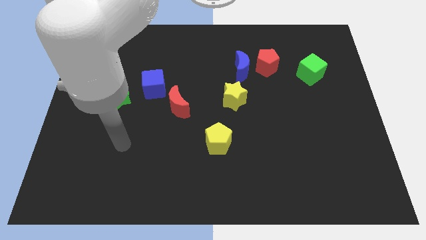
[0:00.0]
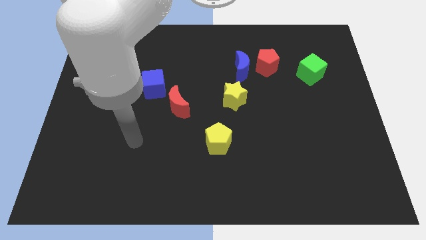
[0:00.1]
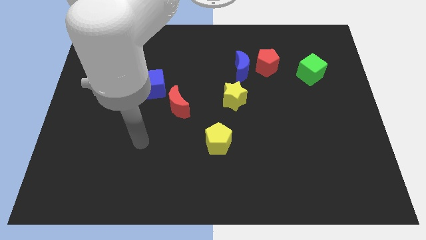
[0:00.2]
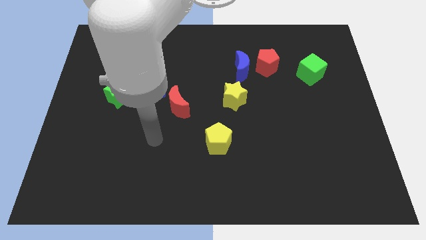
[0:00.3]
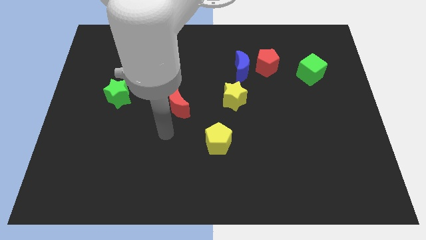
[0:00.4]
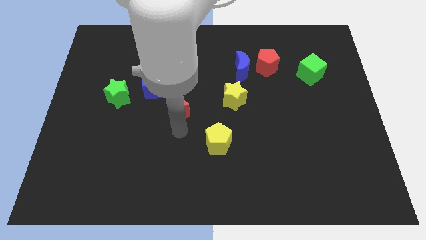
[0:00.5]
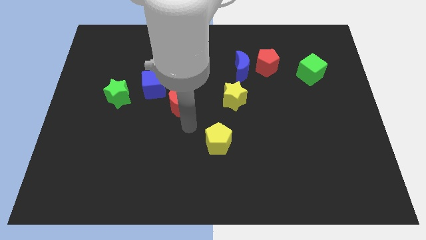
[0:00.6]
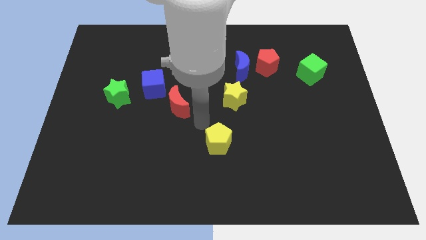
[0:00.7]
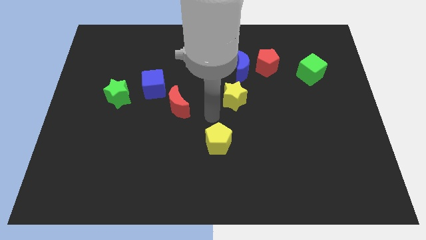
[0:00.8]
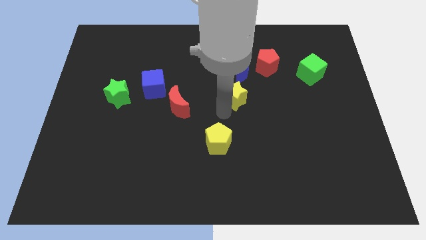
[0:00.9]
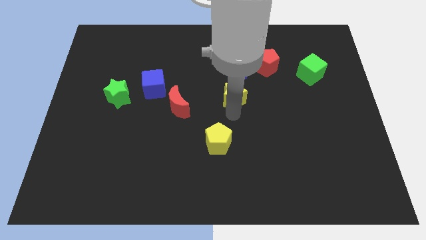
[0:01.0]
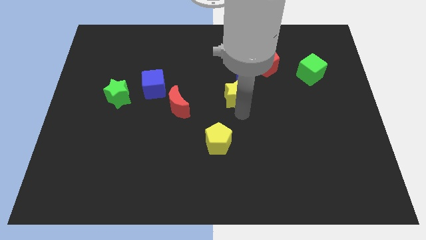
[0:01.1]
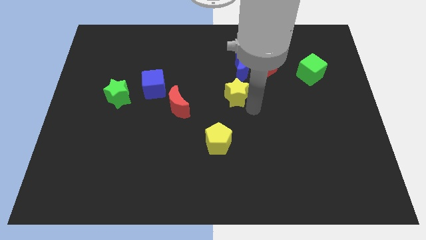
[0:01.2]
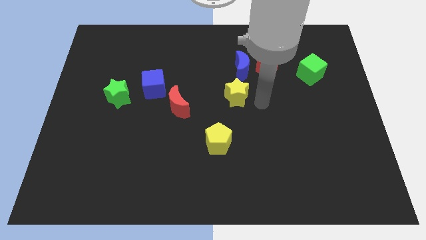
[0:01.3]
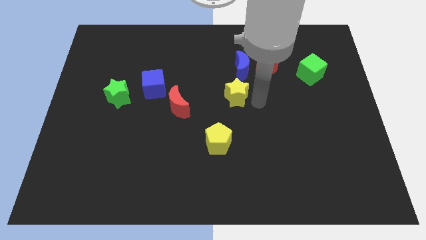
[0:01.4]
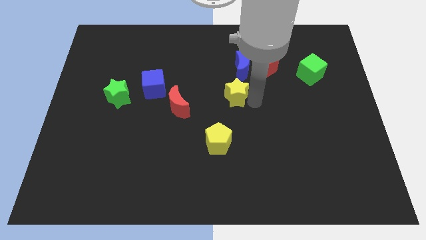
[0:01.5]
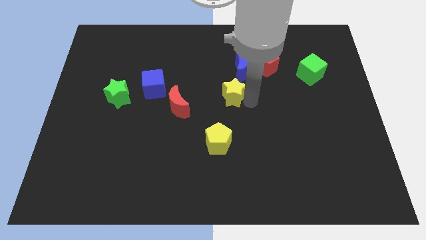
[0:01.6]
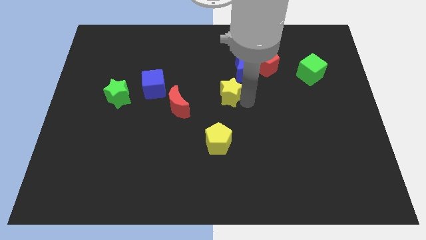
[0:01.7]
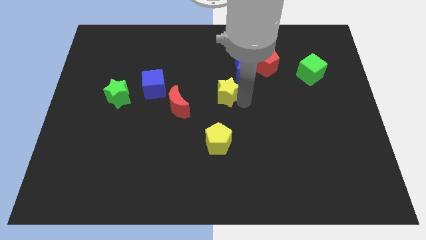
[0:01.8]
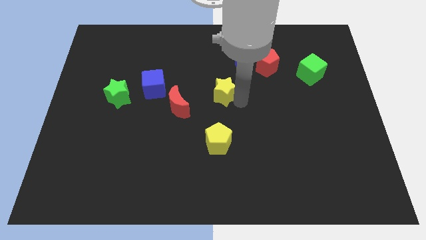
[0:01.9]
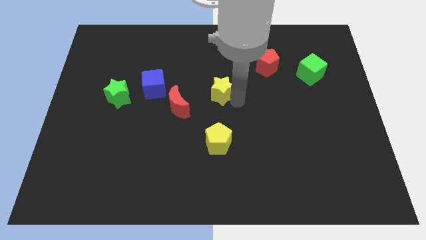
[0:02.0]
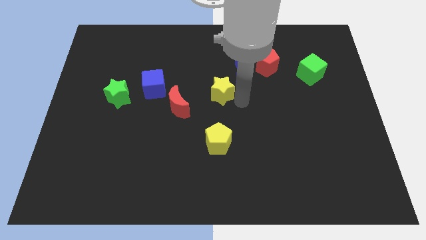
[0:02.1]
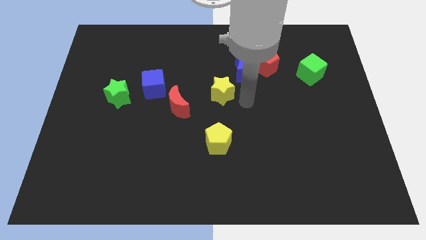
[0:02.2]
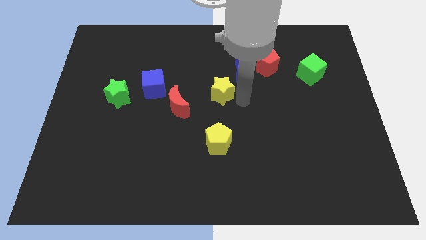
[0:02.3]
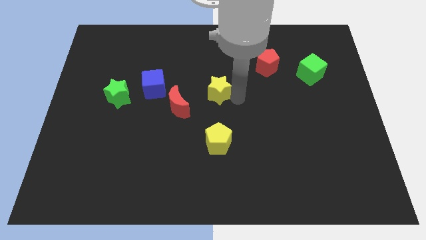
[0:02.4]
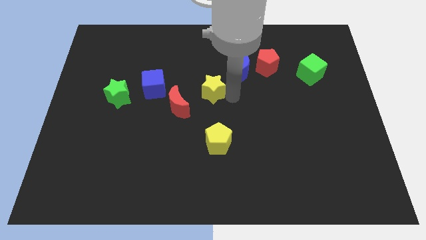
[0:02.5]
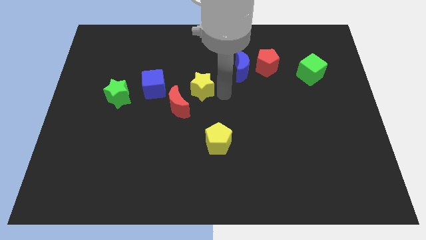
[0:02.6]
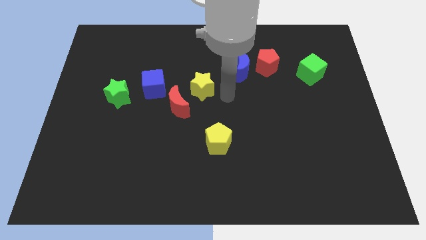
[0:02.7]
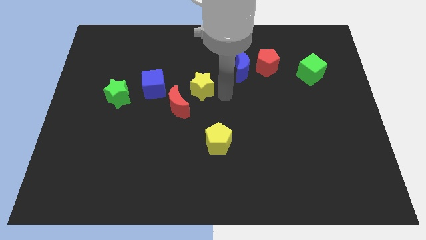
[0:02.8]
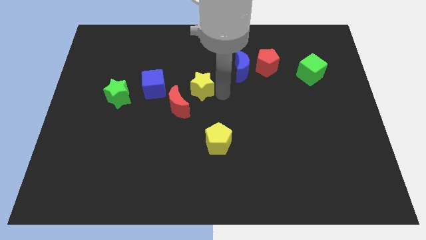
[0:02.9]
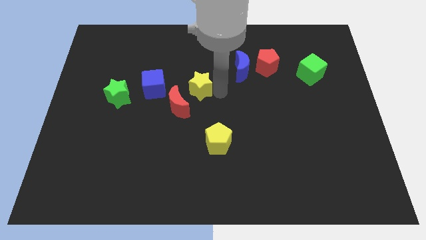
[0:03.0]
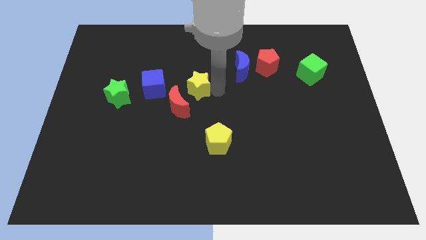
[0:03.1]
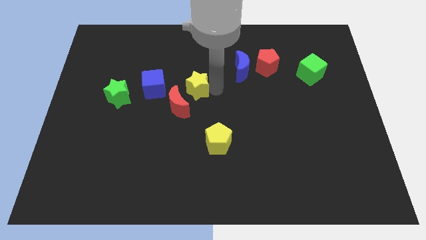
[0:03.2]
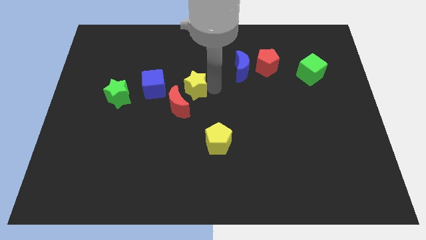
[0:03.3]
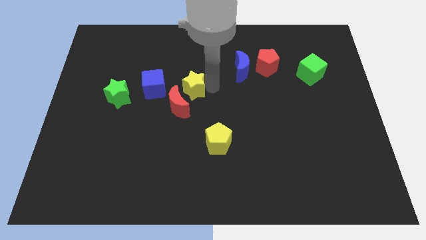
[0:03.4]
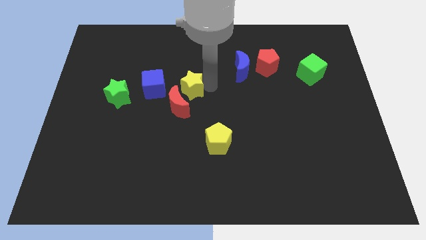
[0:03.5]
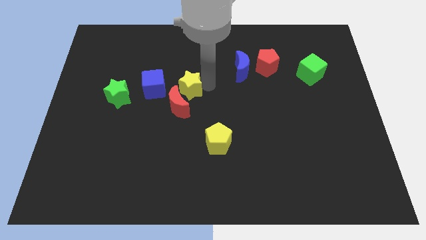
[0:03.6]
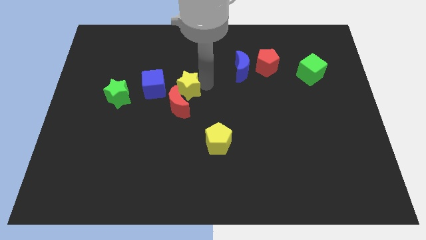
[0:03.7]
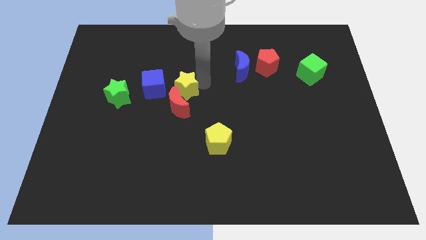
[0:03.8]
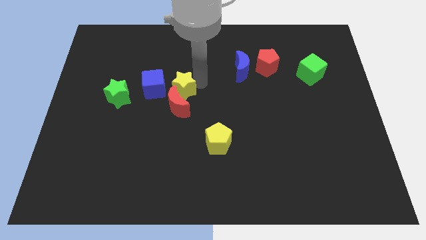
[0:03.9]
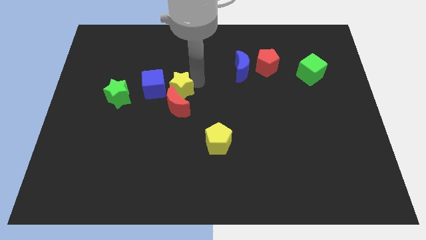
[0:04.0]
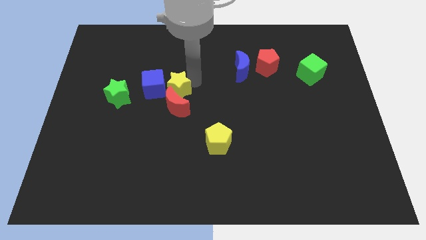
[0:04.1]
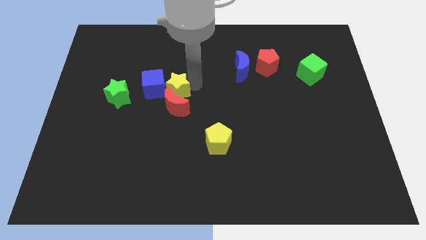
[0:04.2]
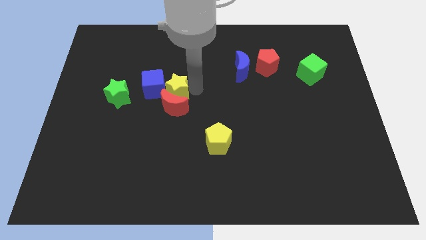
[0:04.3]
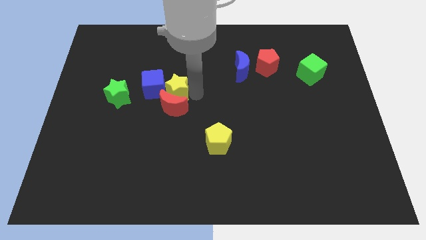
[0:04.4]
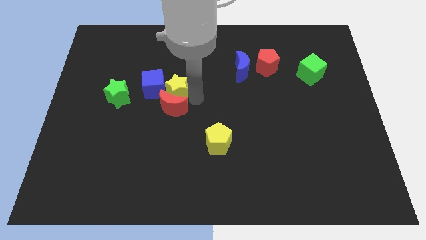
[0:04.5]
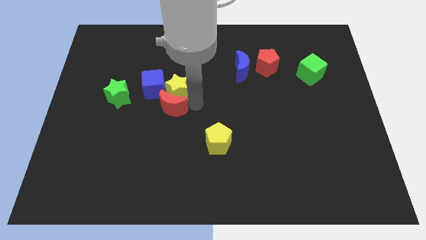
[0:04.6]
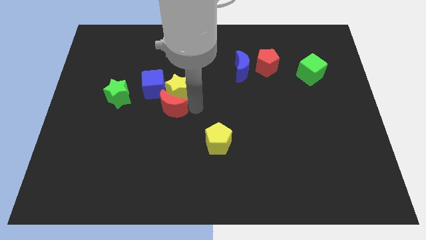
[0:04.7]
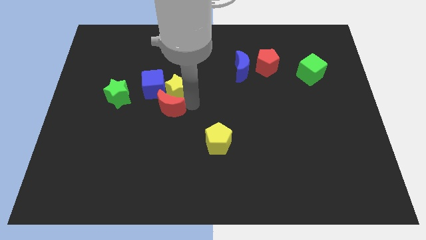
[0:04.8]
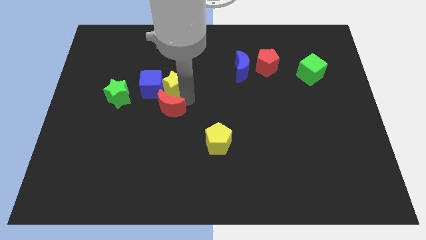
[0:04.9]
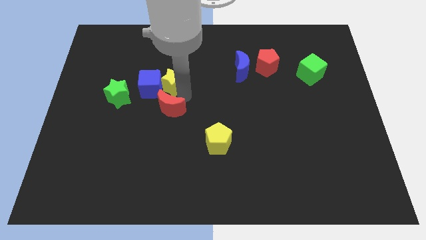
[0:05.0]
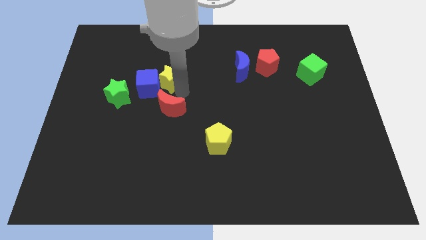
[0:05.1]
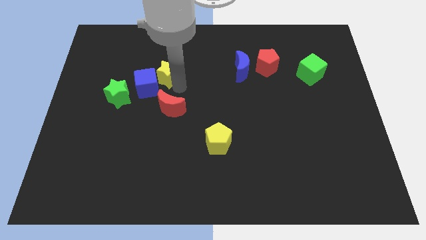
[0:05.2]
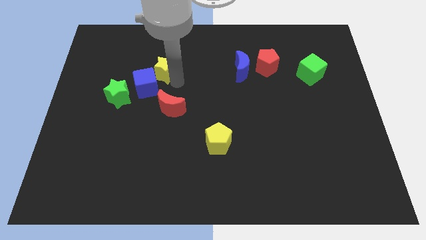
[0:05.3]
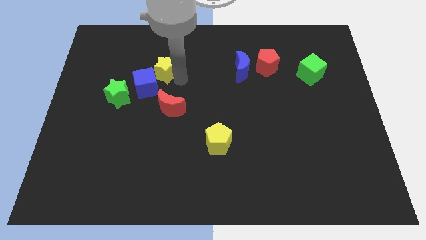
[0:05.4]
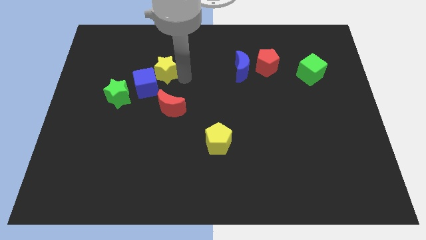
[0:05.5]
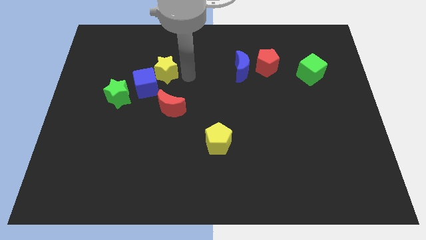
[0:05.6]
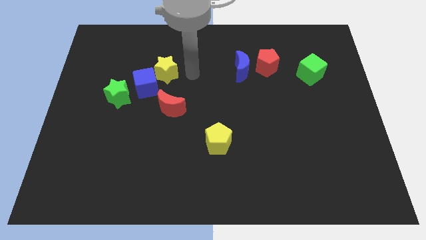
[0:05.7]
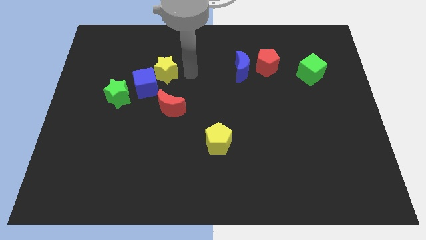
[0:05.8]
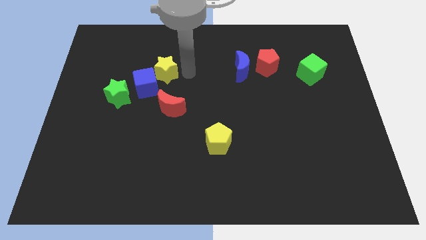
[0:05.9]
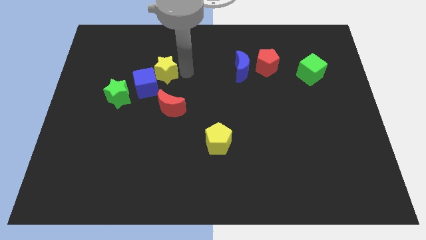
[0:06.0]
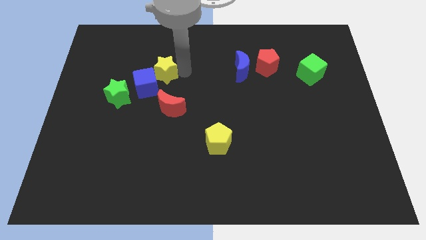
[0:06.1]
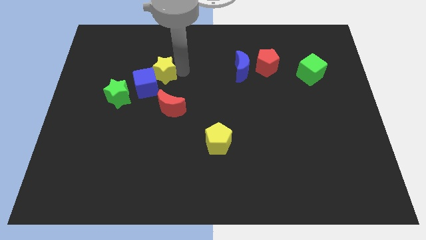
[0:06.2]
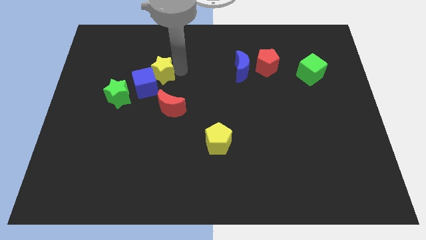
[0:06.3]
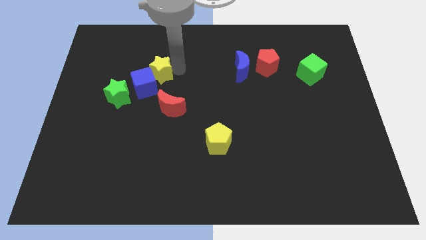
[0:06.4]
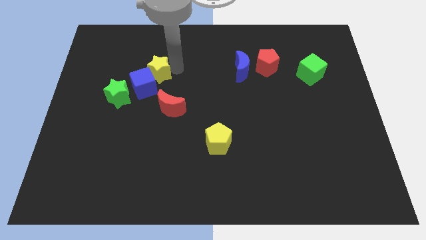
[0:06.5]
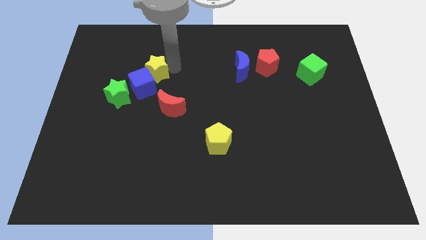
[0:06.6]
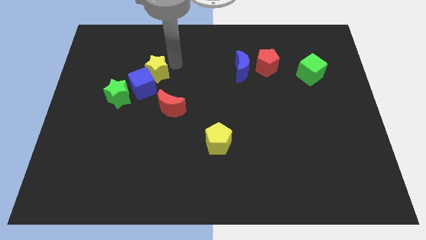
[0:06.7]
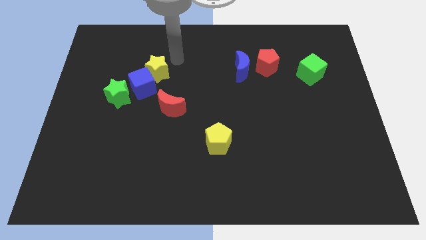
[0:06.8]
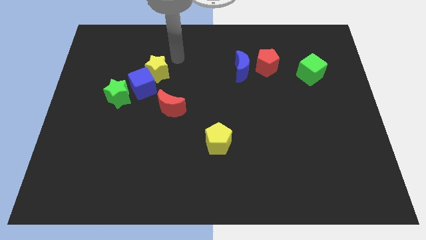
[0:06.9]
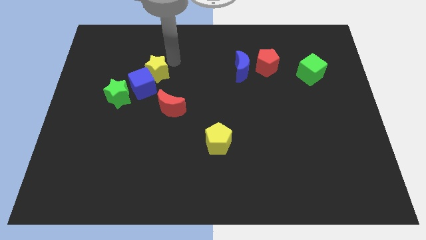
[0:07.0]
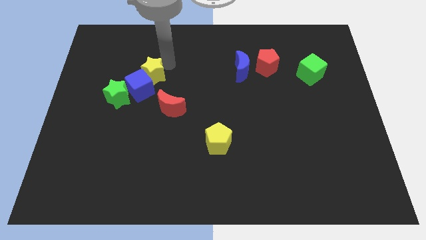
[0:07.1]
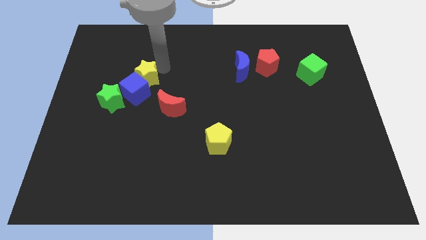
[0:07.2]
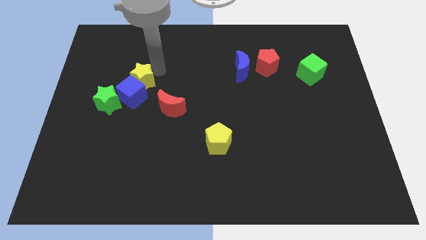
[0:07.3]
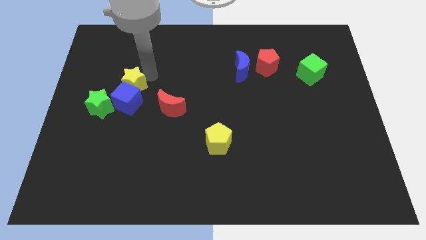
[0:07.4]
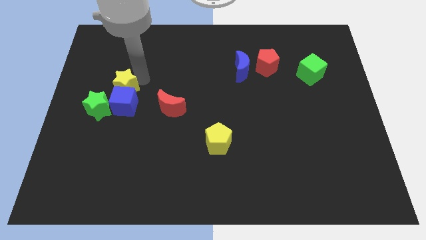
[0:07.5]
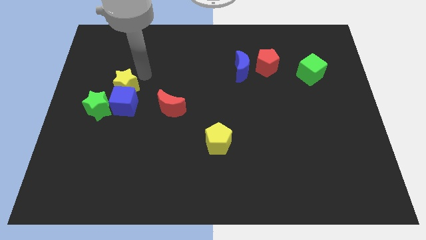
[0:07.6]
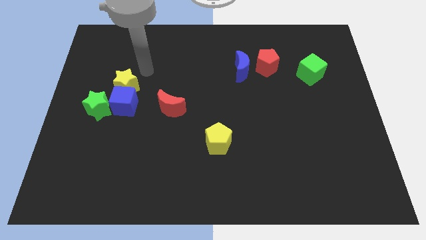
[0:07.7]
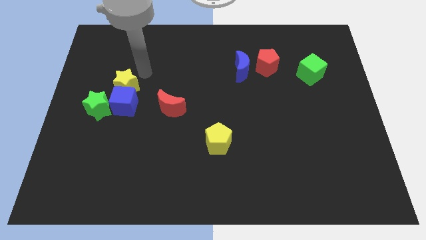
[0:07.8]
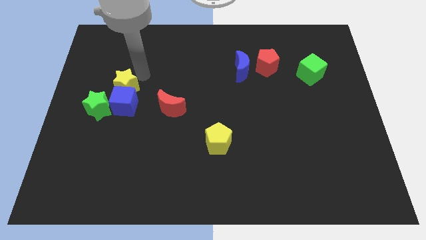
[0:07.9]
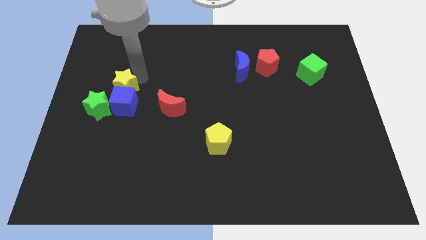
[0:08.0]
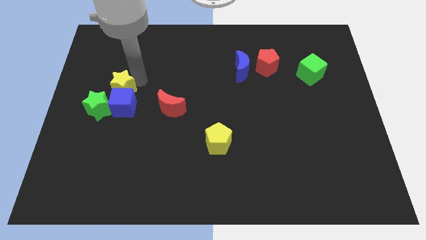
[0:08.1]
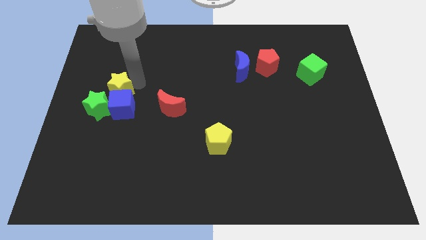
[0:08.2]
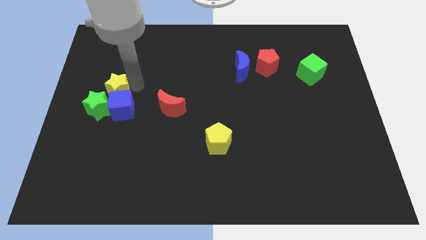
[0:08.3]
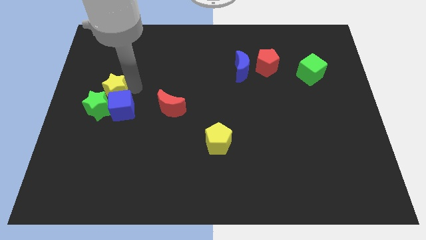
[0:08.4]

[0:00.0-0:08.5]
put the yellow star towards the green star
